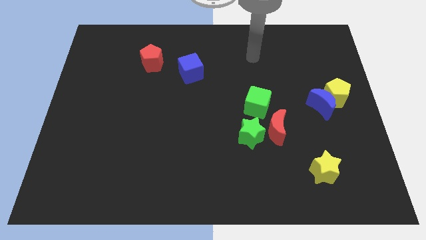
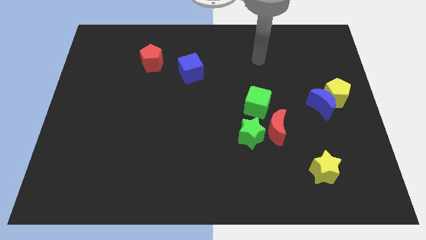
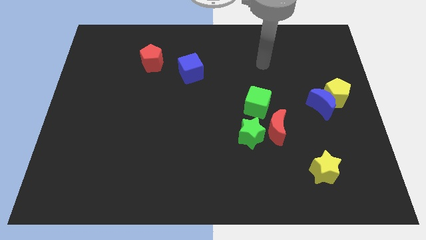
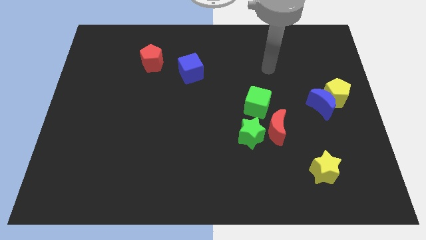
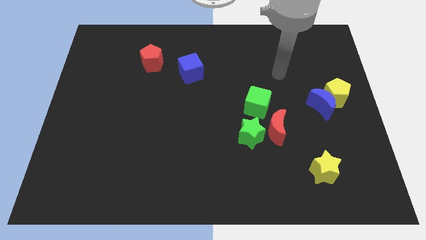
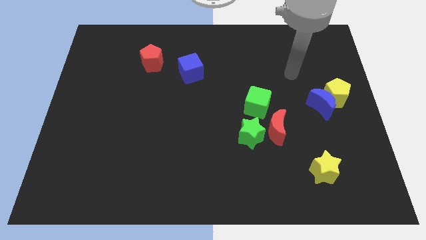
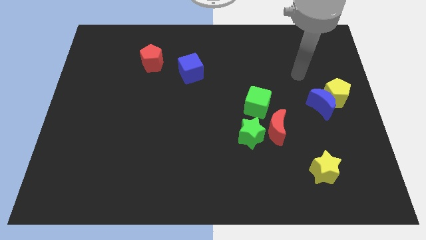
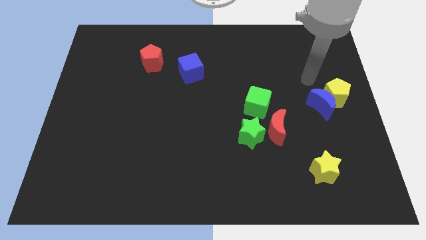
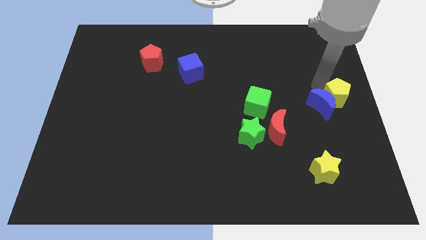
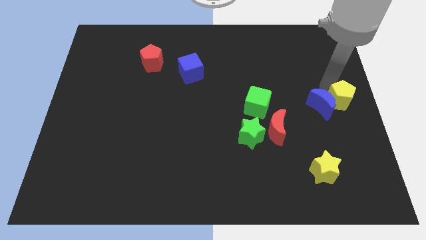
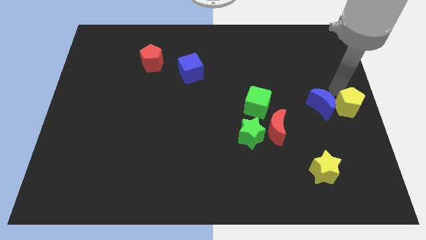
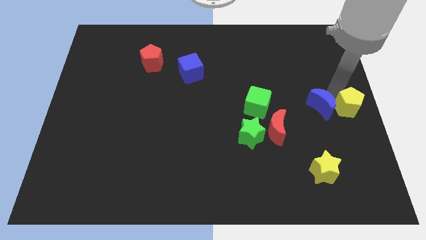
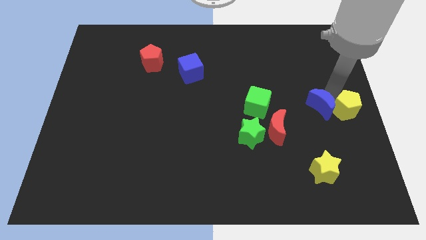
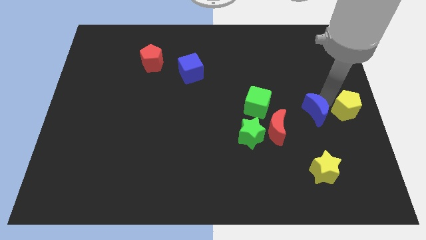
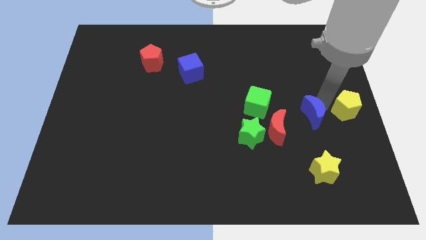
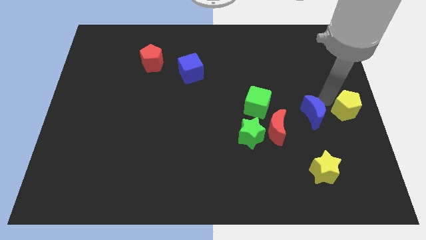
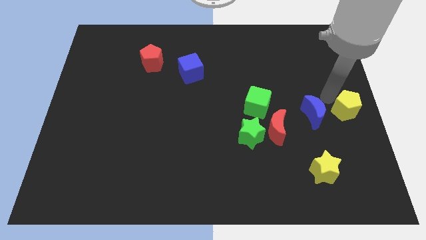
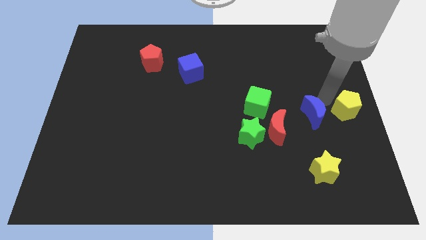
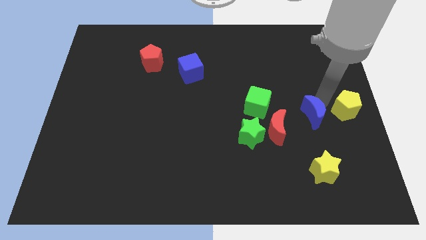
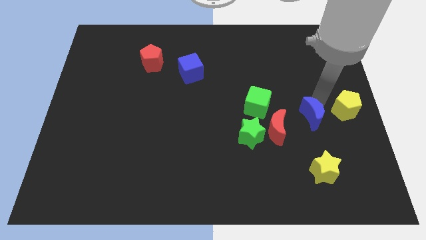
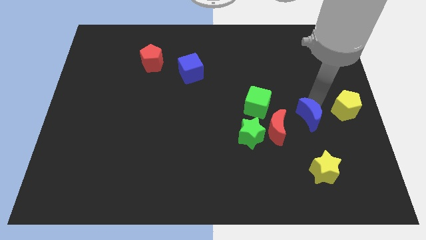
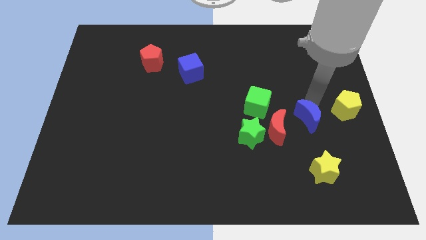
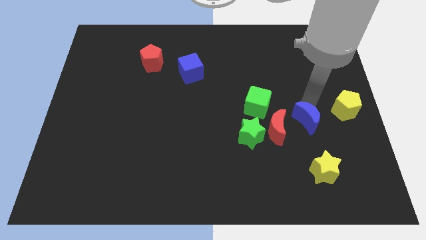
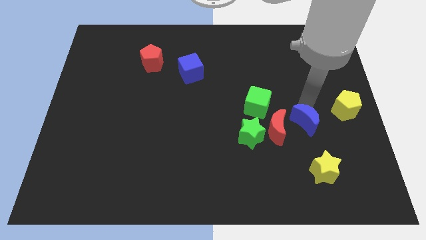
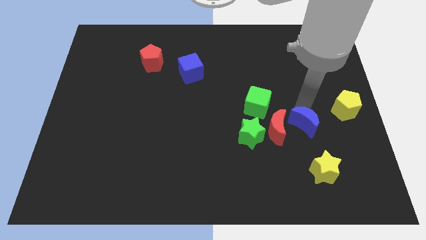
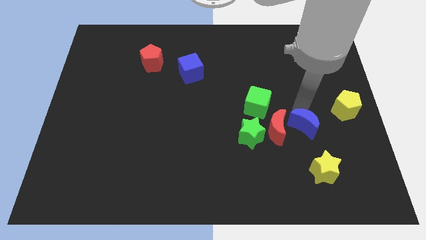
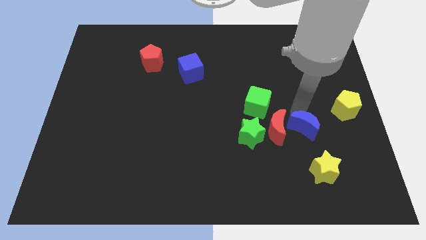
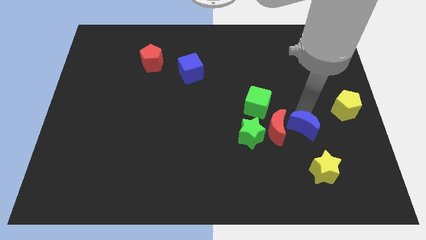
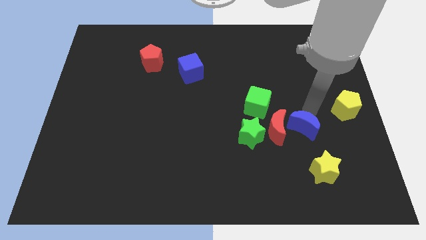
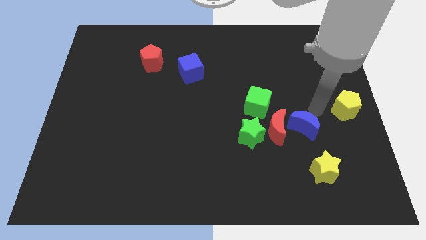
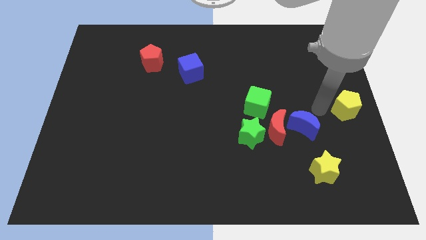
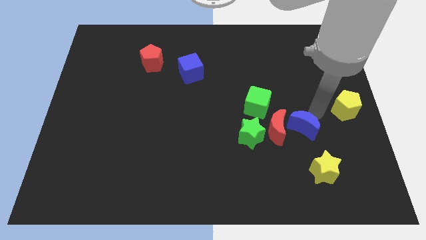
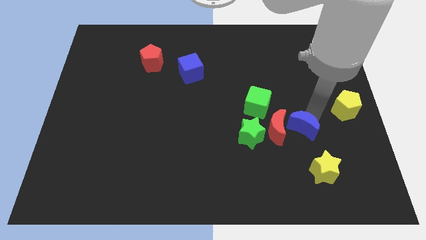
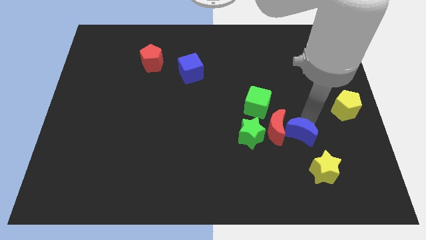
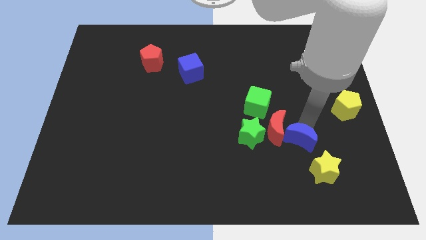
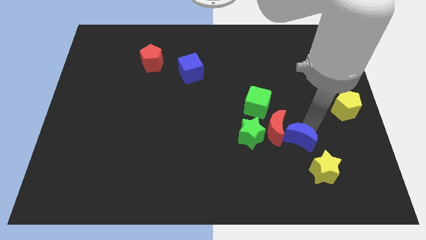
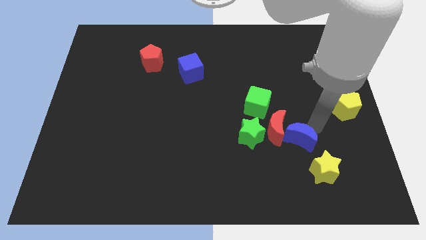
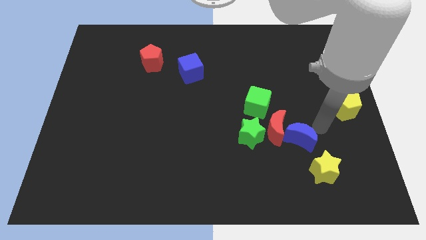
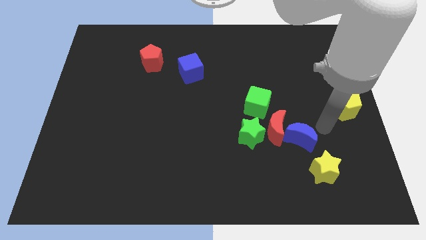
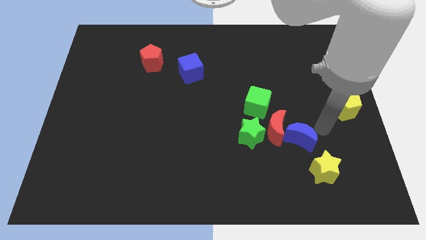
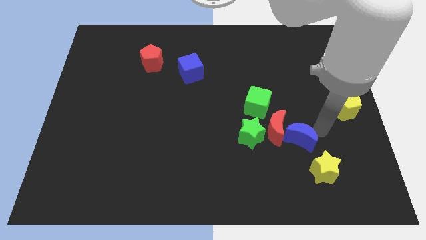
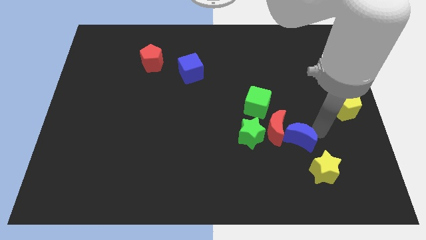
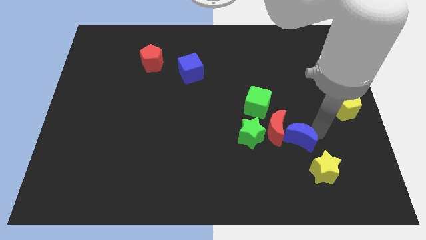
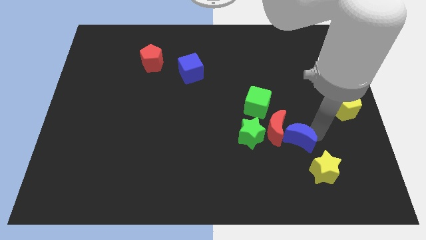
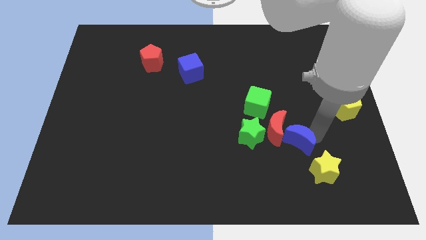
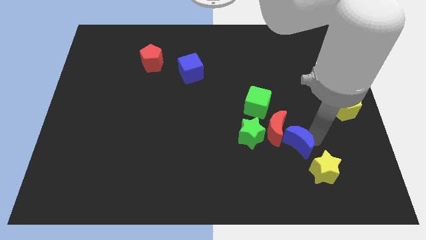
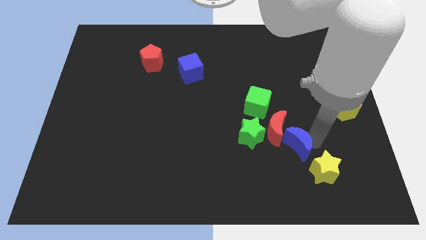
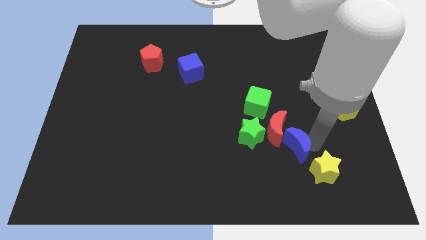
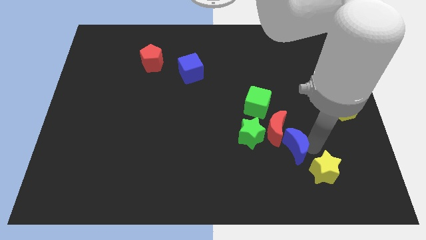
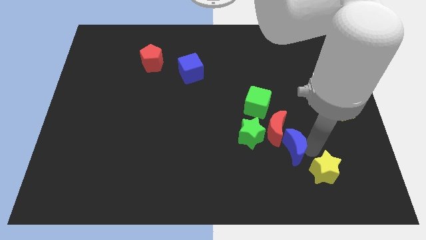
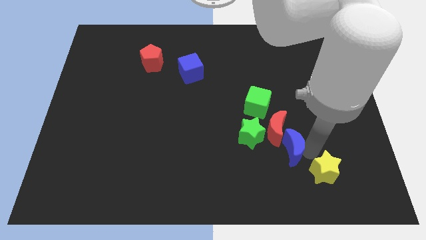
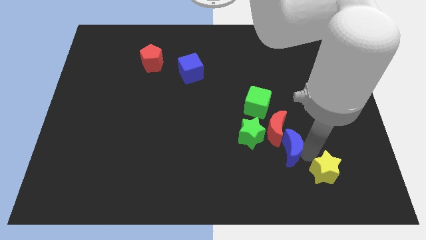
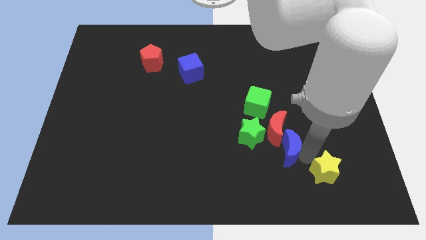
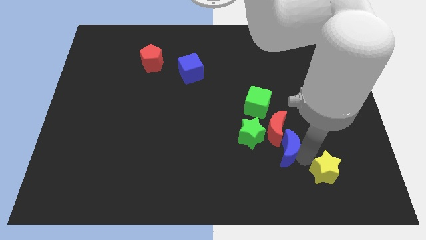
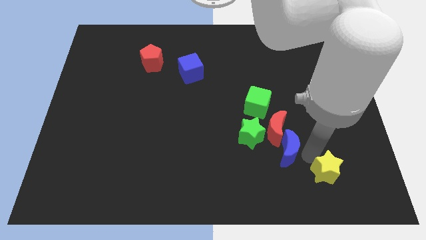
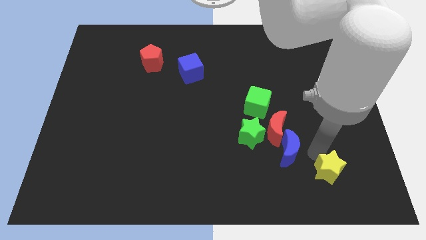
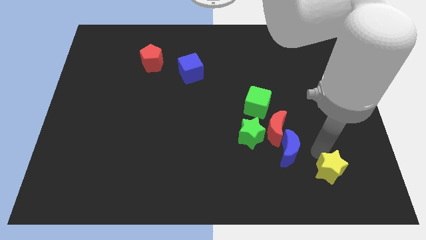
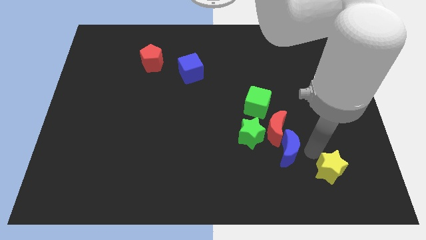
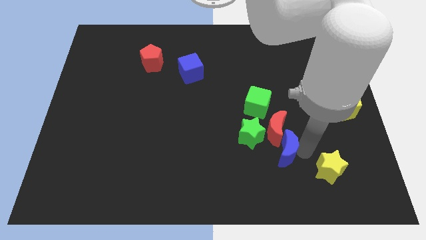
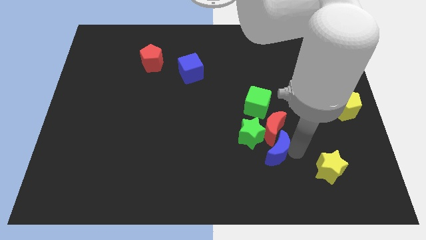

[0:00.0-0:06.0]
move the blue moon to the bottom left side of the red moon
